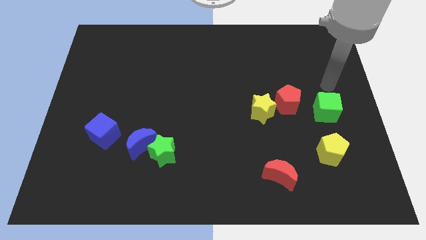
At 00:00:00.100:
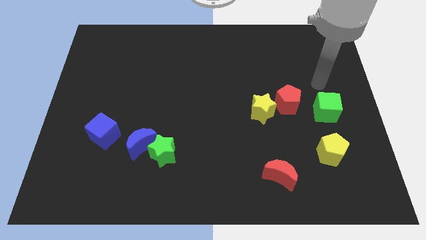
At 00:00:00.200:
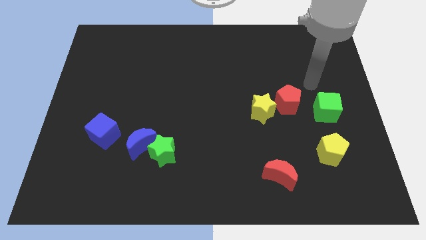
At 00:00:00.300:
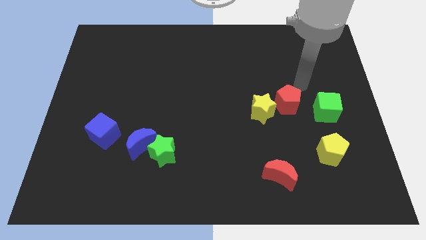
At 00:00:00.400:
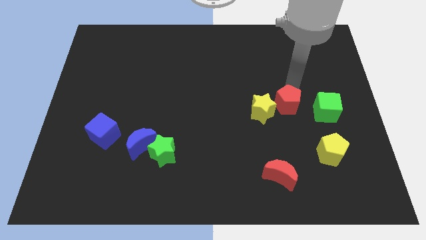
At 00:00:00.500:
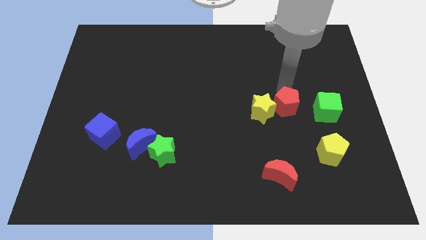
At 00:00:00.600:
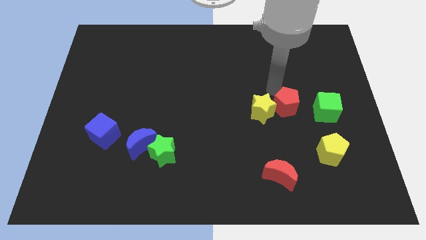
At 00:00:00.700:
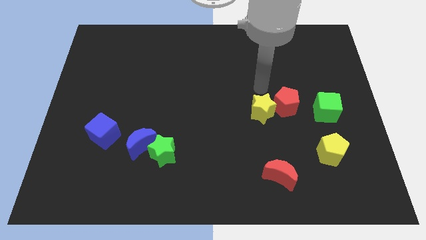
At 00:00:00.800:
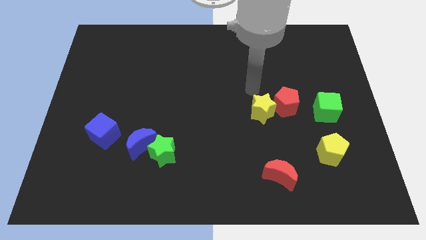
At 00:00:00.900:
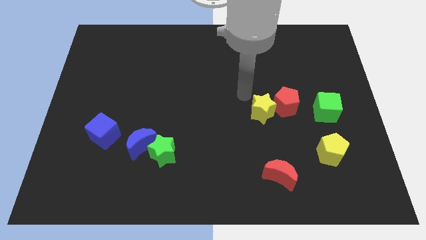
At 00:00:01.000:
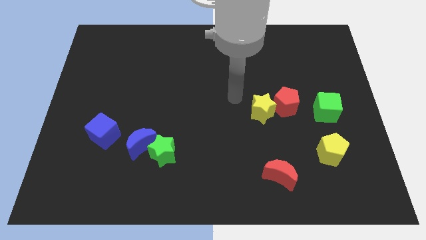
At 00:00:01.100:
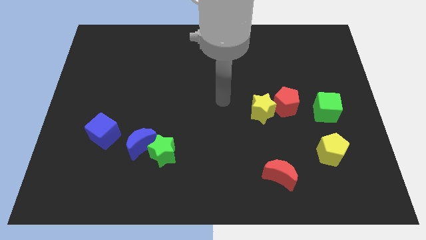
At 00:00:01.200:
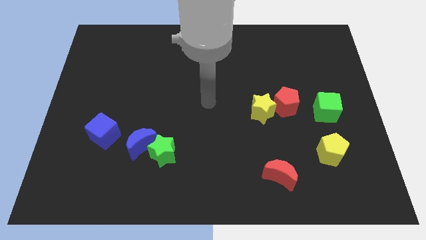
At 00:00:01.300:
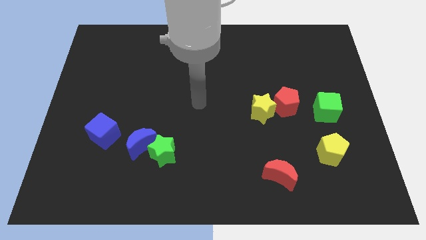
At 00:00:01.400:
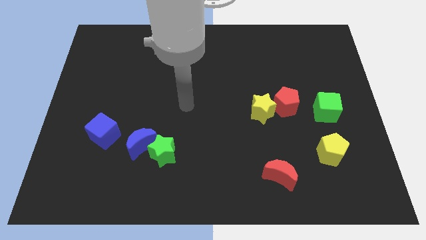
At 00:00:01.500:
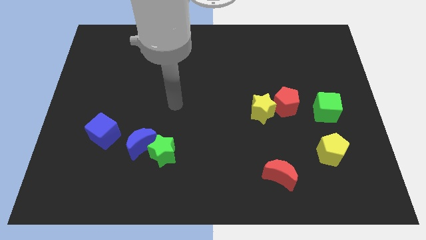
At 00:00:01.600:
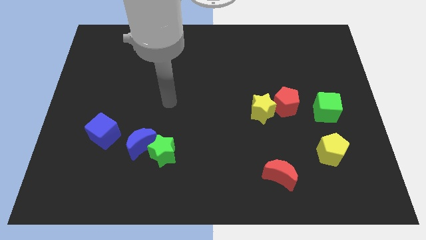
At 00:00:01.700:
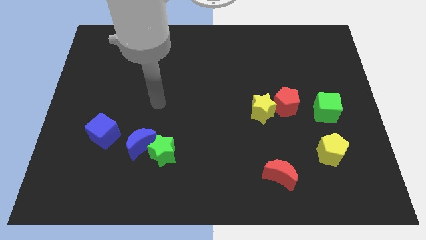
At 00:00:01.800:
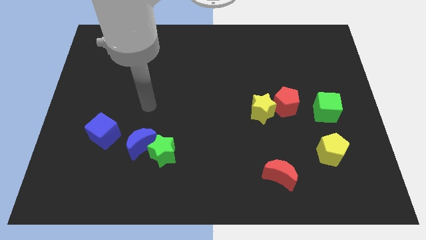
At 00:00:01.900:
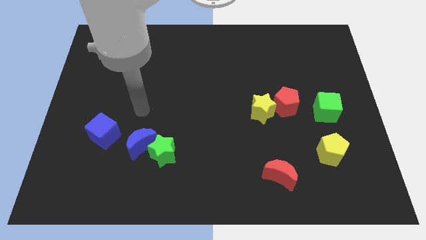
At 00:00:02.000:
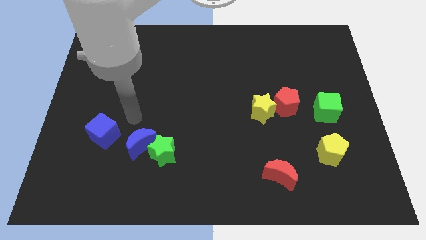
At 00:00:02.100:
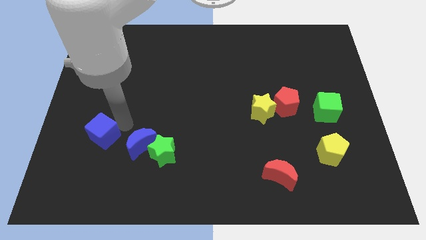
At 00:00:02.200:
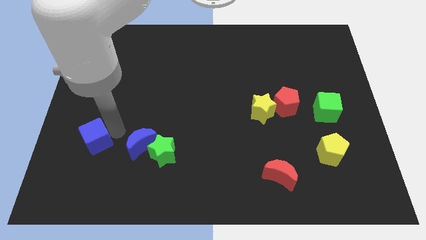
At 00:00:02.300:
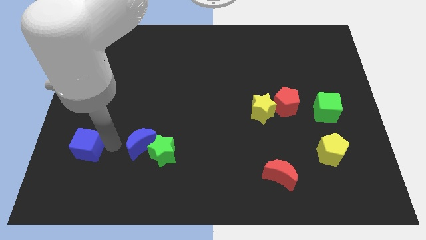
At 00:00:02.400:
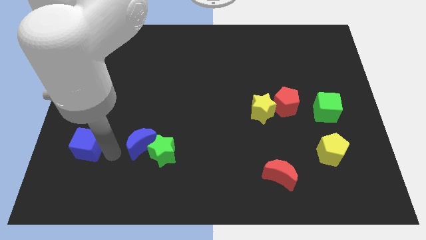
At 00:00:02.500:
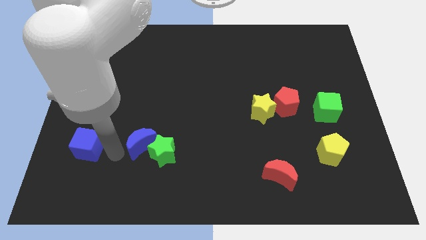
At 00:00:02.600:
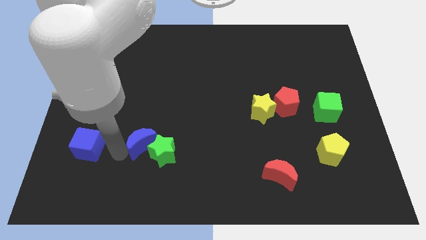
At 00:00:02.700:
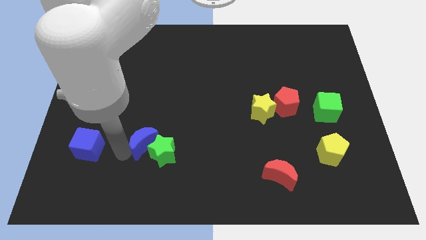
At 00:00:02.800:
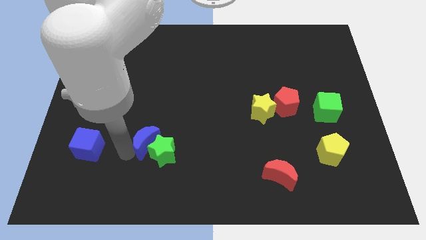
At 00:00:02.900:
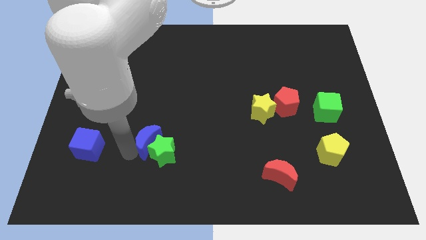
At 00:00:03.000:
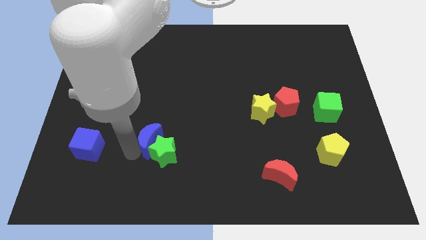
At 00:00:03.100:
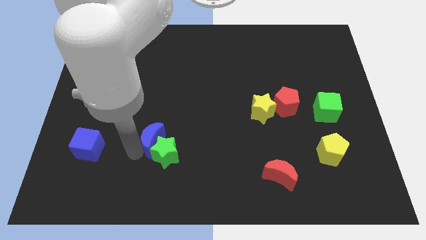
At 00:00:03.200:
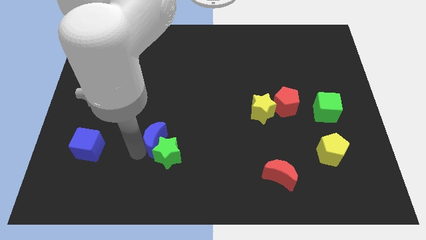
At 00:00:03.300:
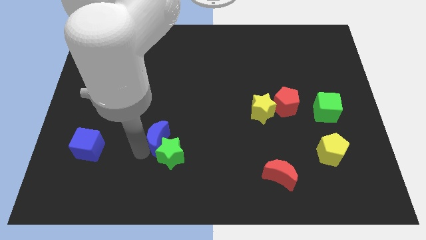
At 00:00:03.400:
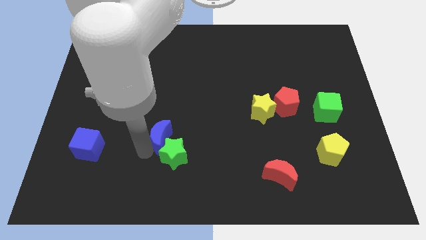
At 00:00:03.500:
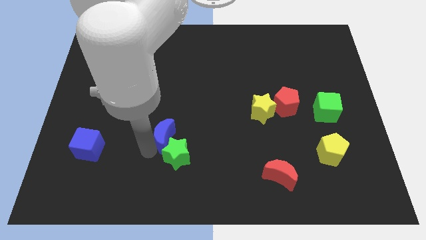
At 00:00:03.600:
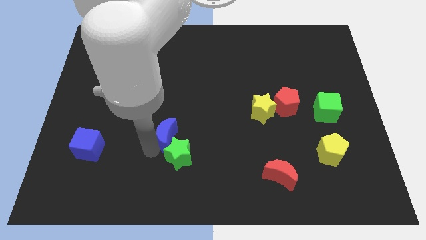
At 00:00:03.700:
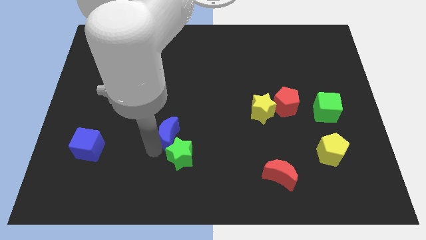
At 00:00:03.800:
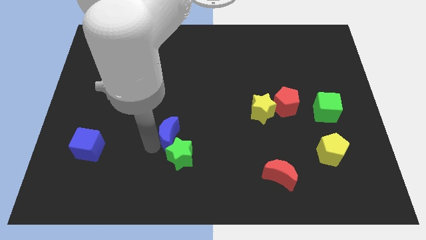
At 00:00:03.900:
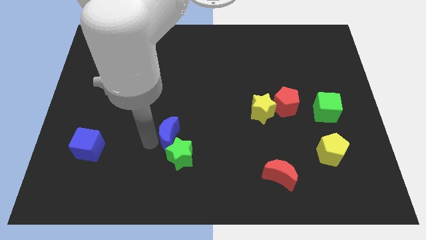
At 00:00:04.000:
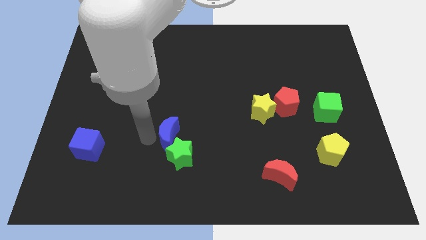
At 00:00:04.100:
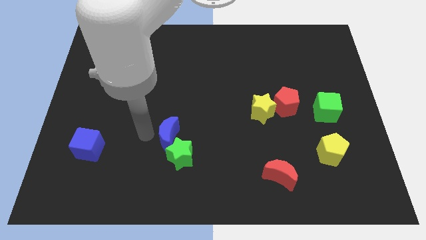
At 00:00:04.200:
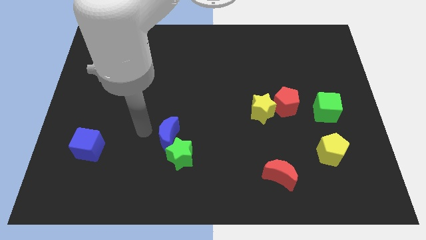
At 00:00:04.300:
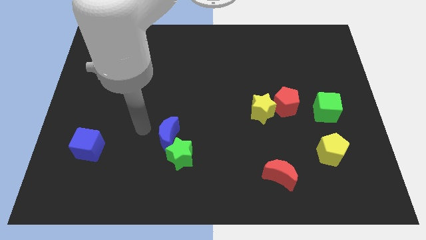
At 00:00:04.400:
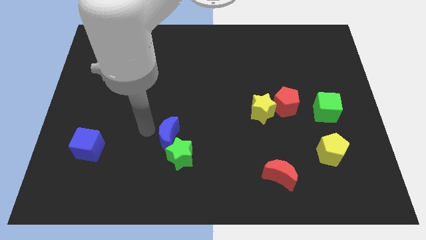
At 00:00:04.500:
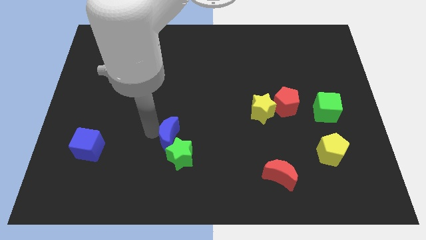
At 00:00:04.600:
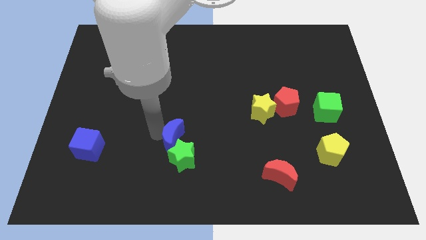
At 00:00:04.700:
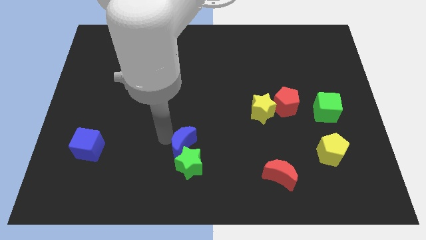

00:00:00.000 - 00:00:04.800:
move the blue moon a bit right

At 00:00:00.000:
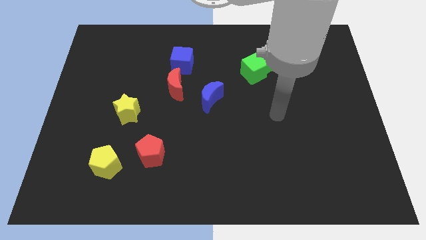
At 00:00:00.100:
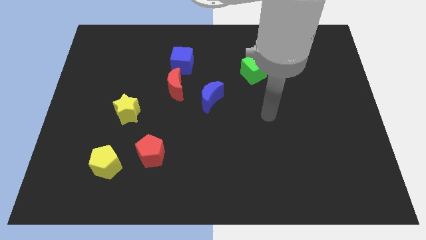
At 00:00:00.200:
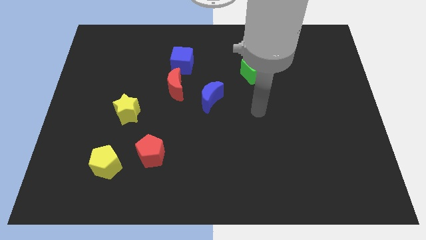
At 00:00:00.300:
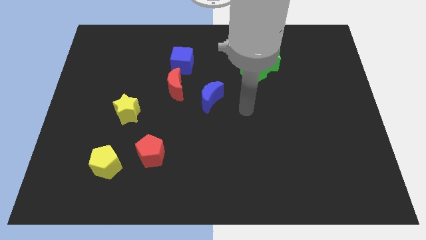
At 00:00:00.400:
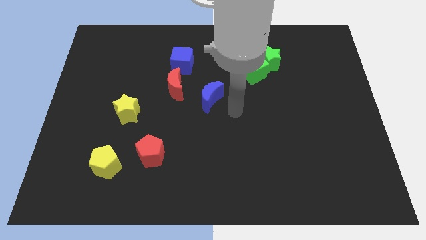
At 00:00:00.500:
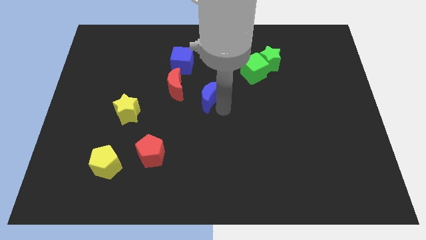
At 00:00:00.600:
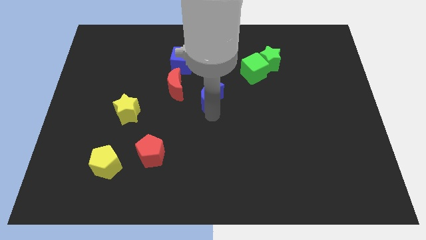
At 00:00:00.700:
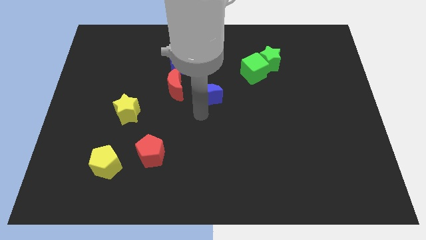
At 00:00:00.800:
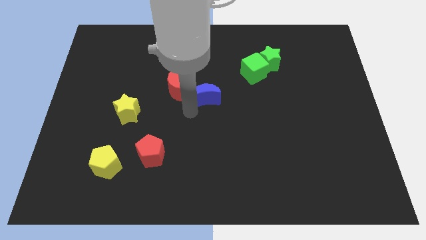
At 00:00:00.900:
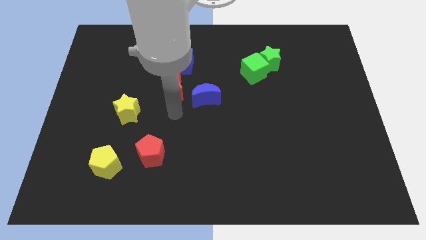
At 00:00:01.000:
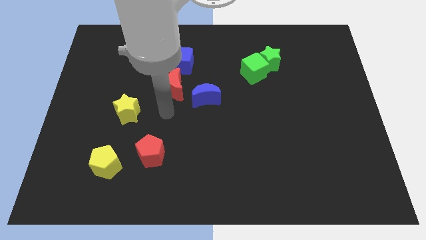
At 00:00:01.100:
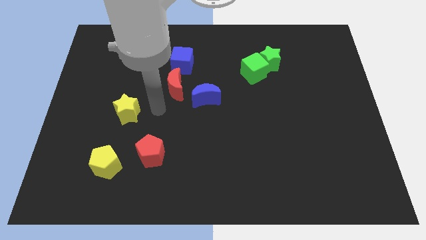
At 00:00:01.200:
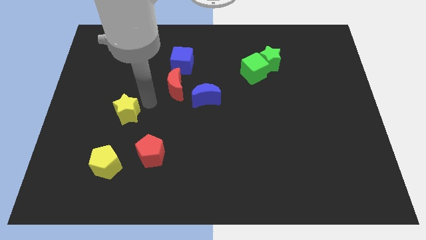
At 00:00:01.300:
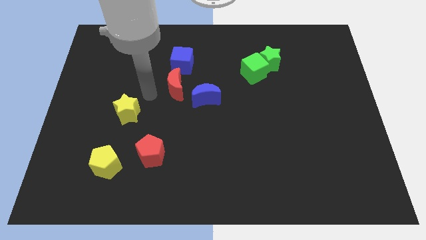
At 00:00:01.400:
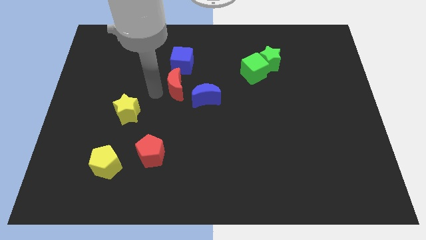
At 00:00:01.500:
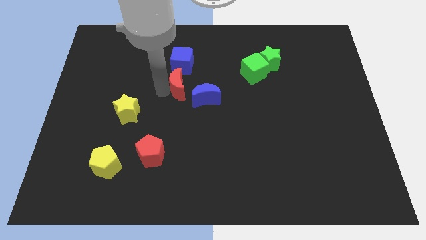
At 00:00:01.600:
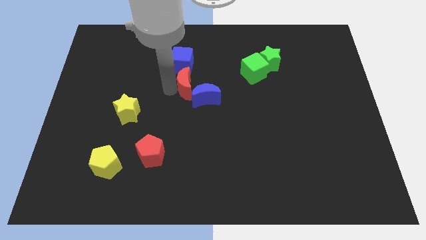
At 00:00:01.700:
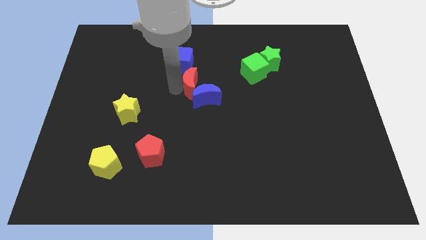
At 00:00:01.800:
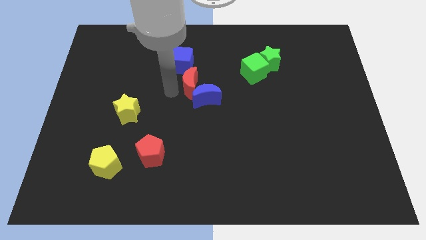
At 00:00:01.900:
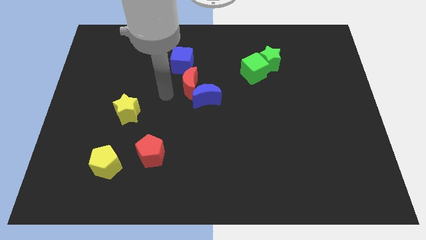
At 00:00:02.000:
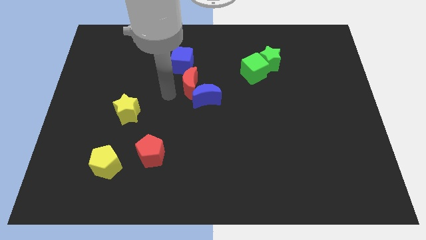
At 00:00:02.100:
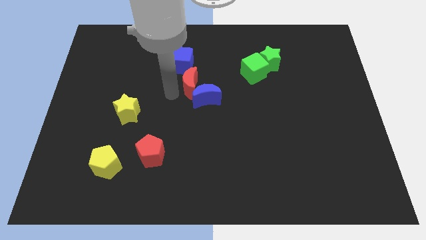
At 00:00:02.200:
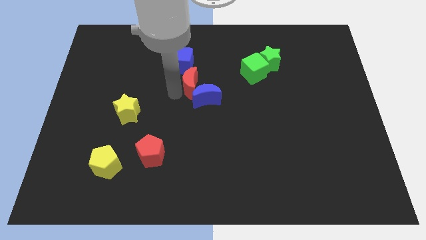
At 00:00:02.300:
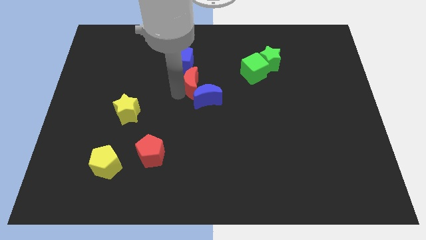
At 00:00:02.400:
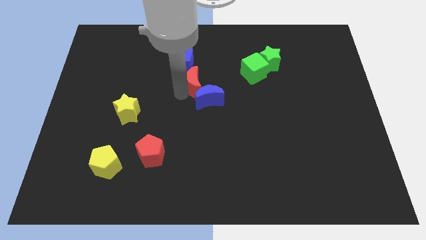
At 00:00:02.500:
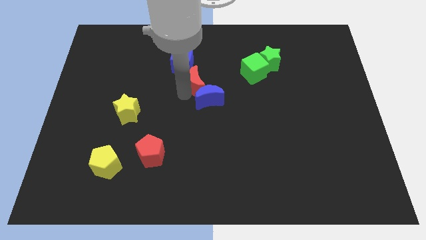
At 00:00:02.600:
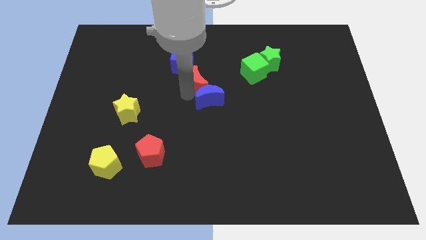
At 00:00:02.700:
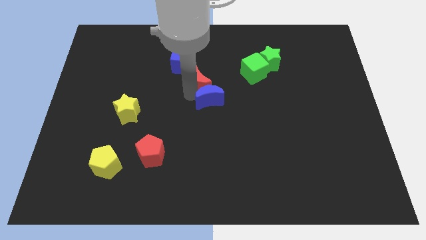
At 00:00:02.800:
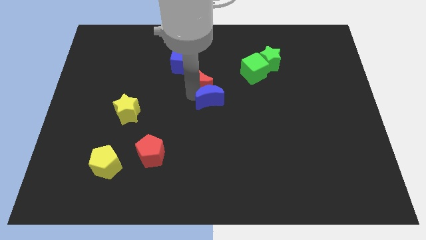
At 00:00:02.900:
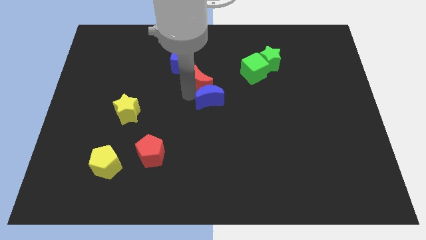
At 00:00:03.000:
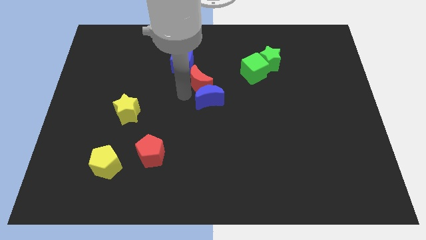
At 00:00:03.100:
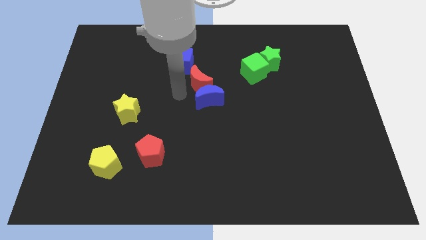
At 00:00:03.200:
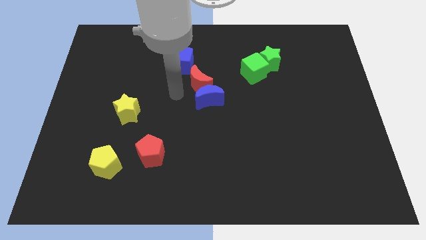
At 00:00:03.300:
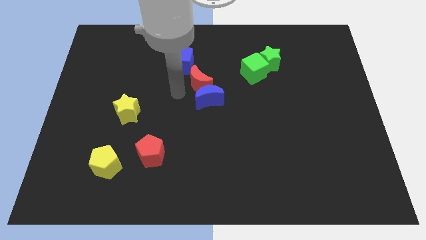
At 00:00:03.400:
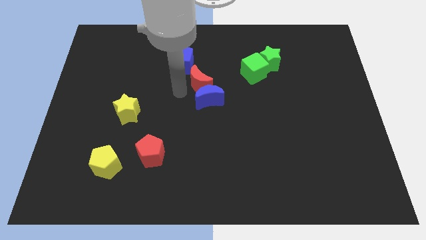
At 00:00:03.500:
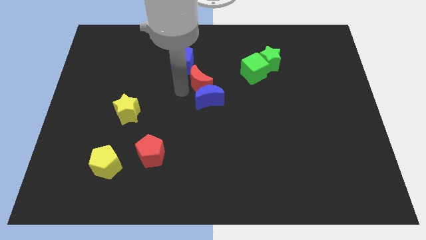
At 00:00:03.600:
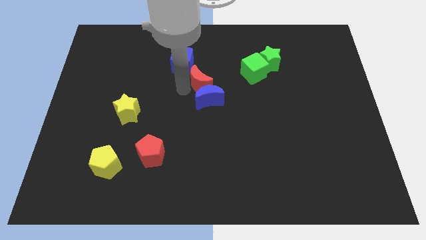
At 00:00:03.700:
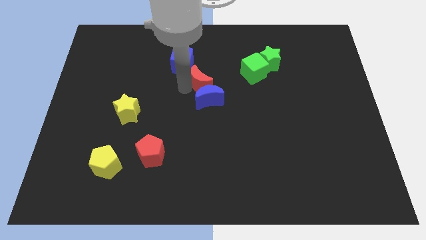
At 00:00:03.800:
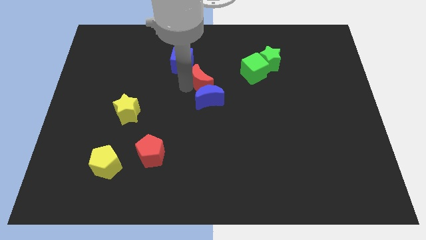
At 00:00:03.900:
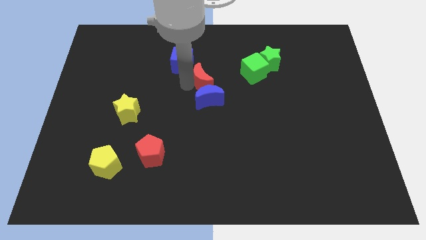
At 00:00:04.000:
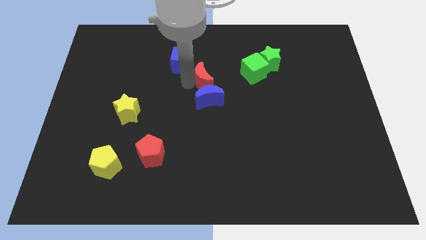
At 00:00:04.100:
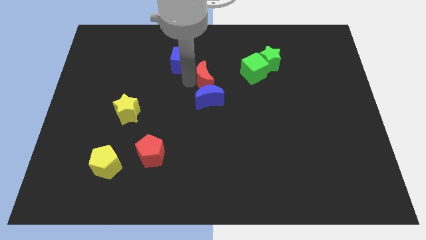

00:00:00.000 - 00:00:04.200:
slide the red moon a little right
